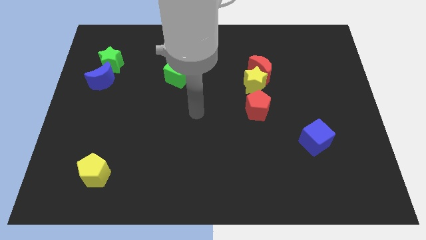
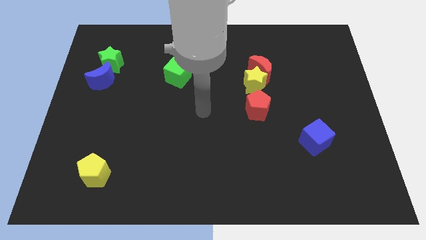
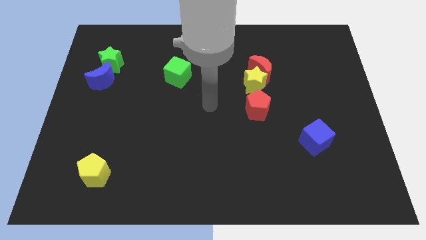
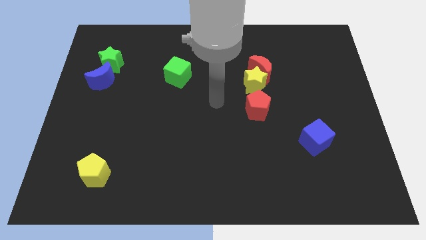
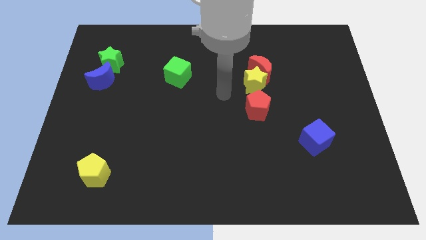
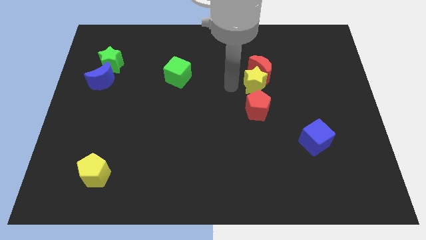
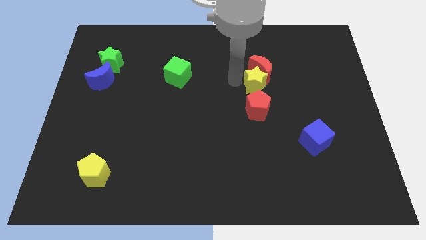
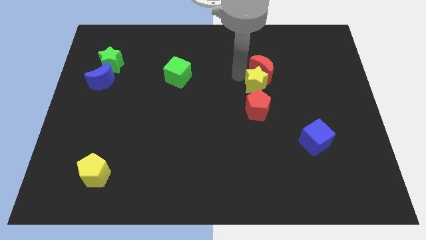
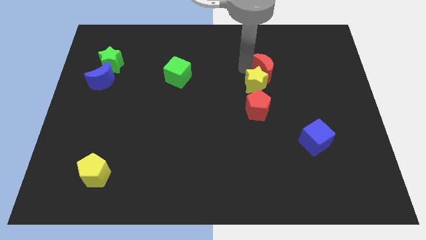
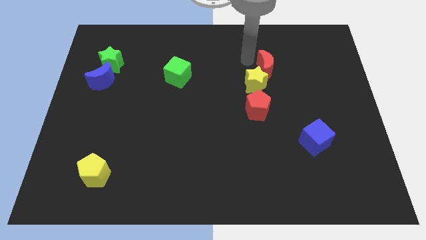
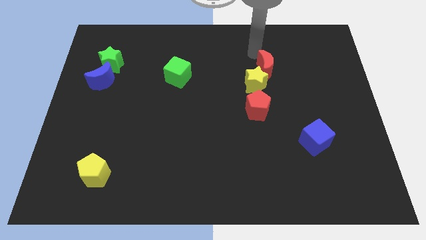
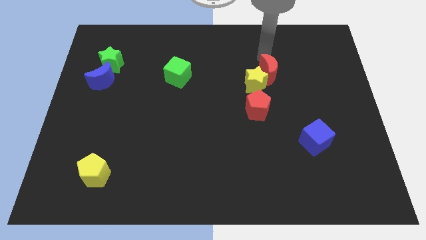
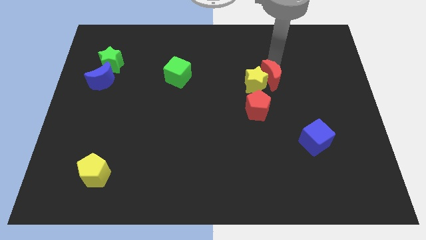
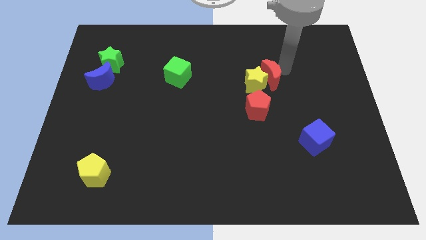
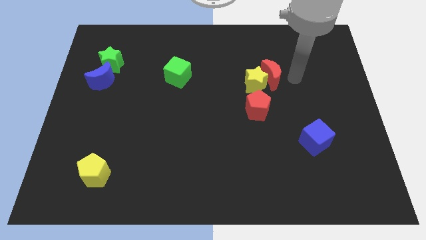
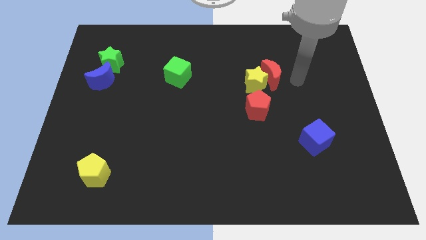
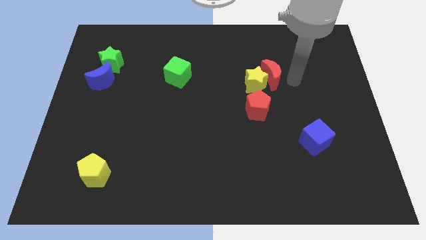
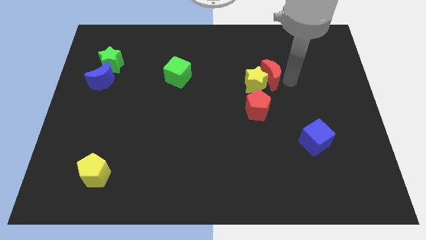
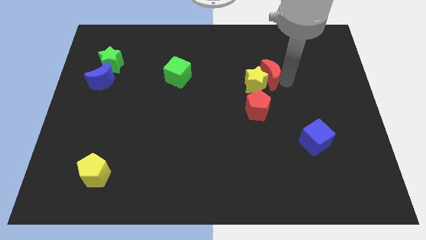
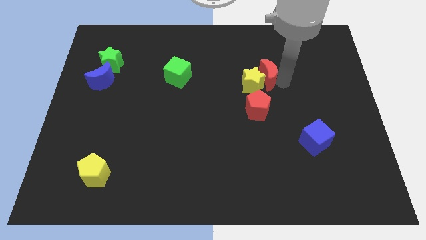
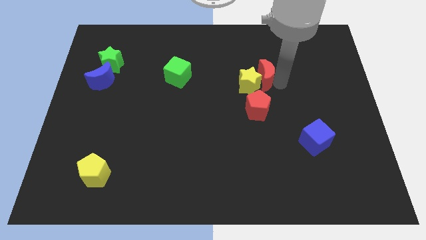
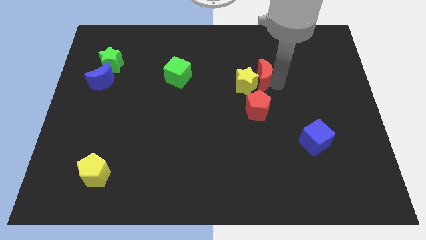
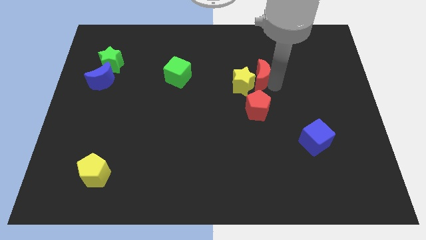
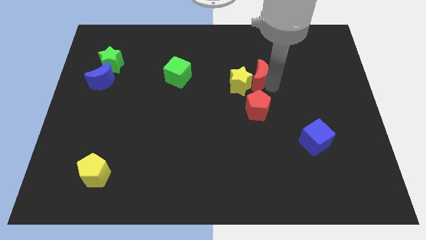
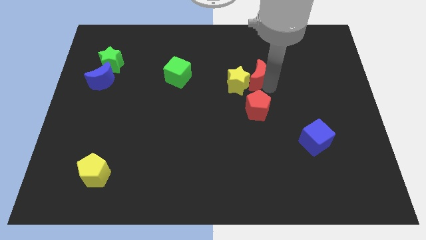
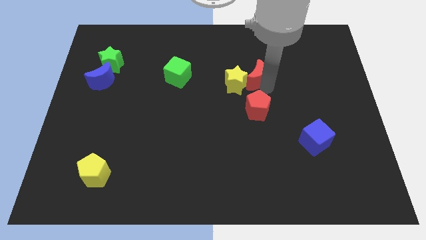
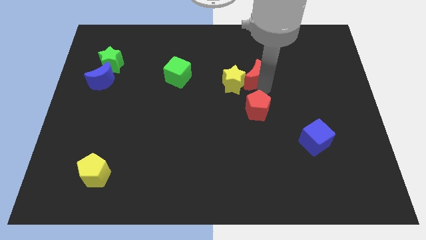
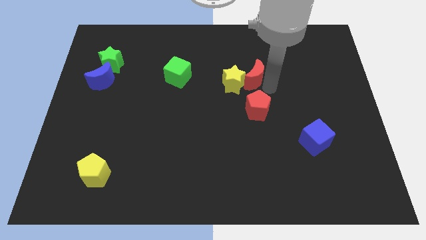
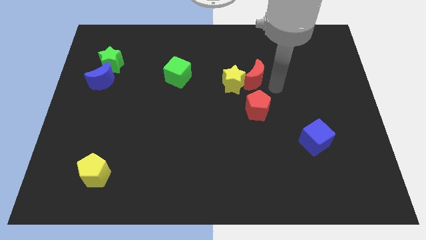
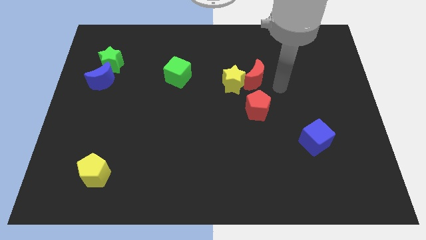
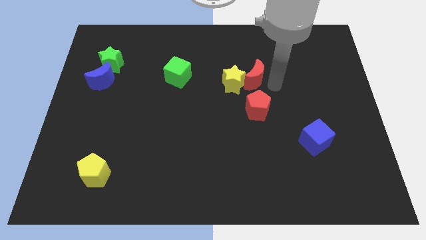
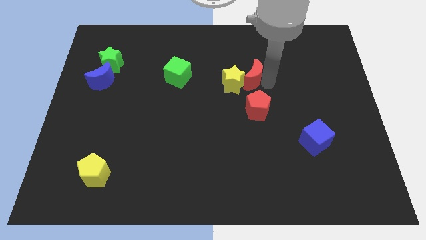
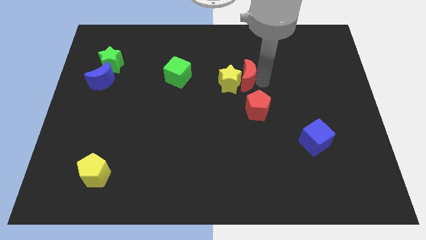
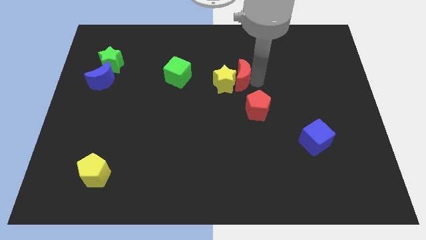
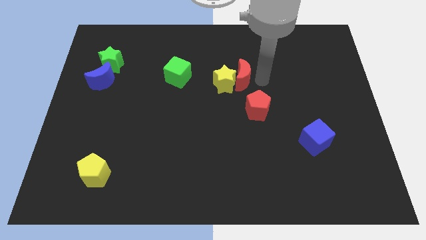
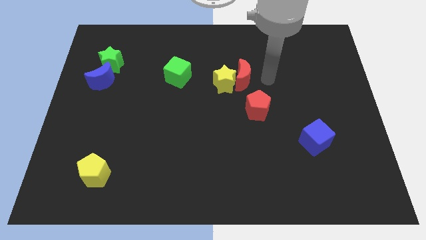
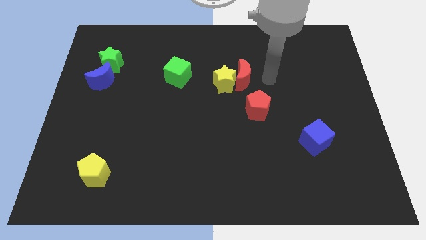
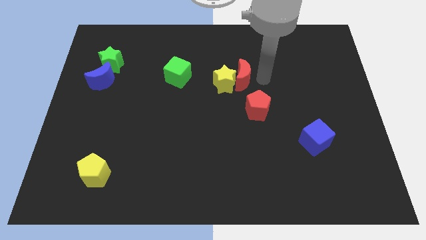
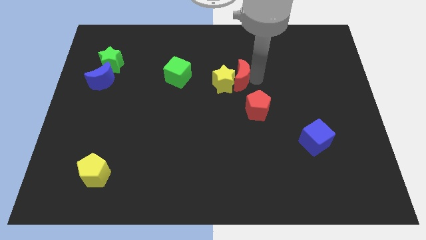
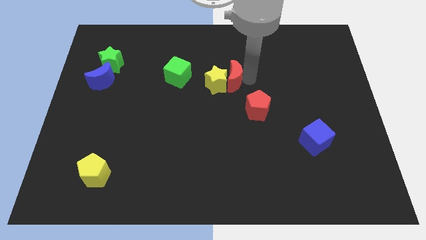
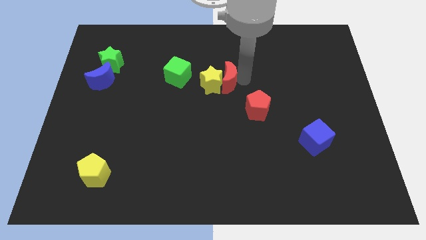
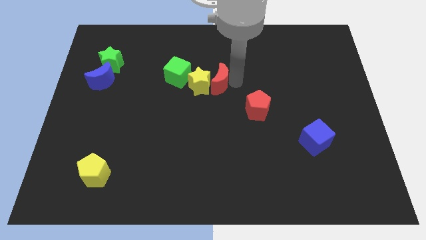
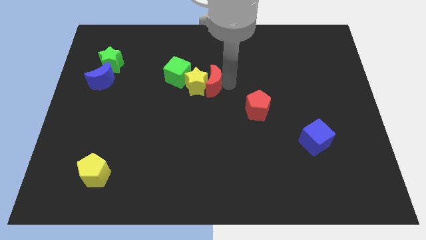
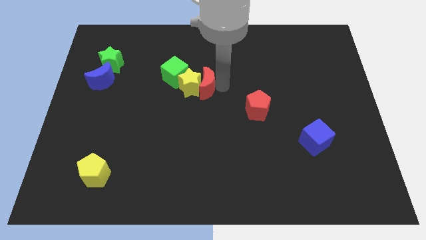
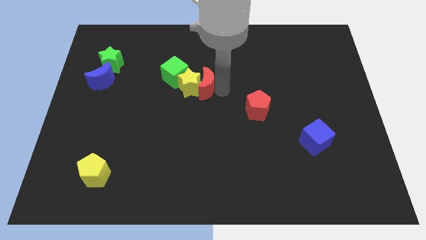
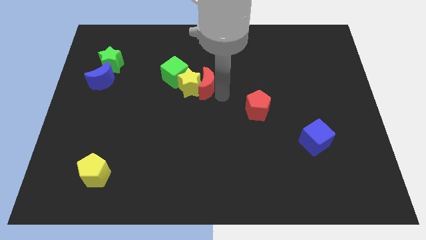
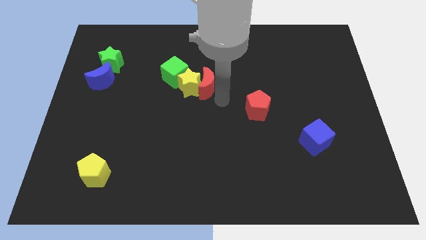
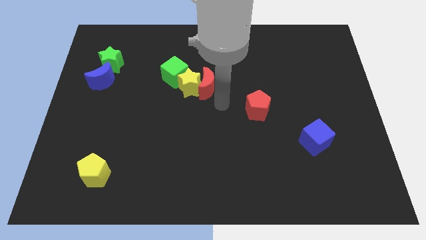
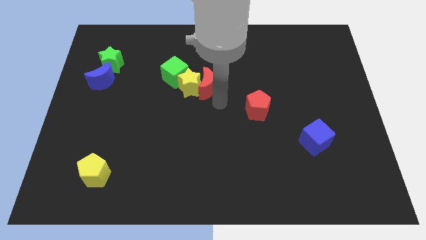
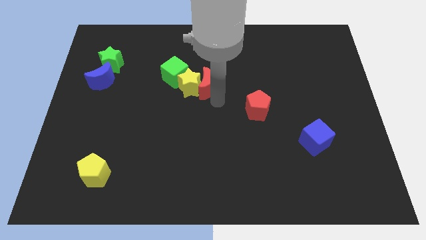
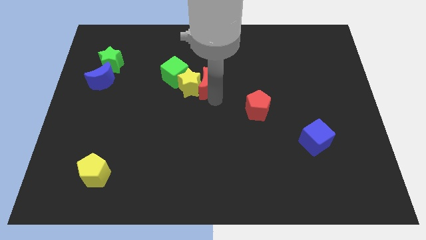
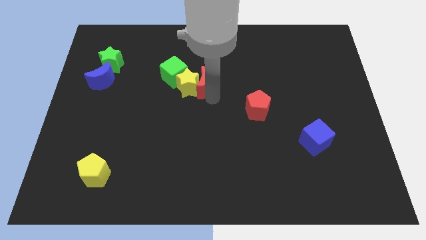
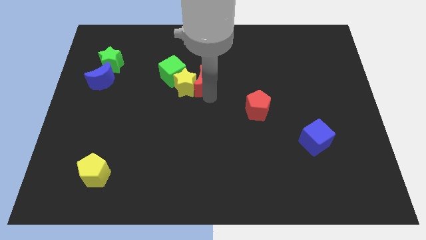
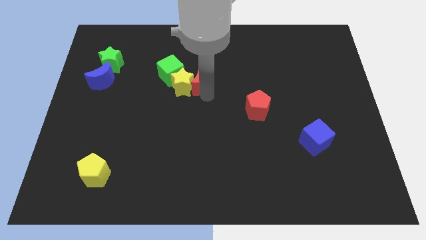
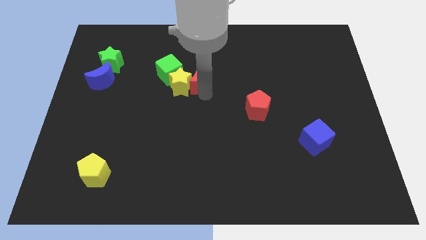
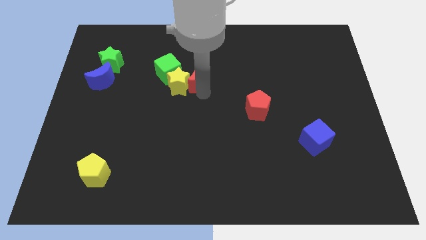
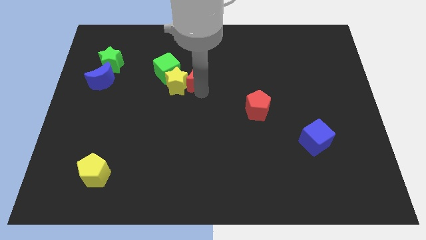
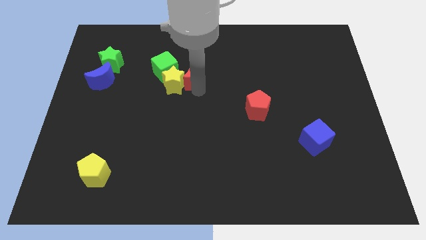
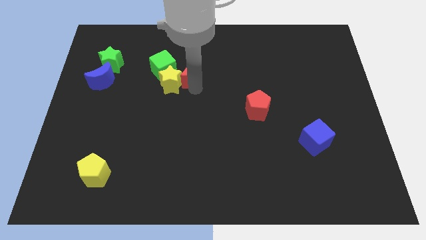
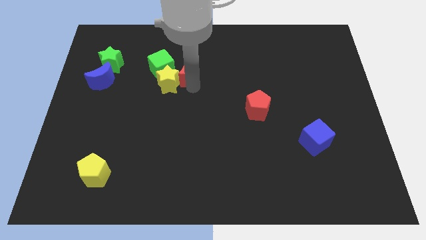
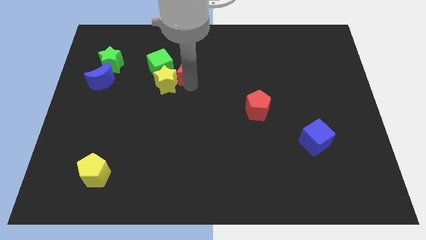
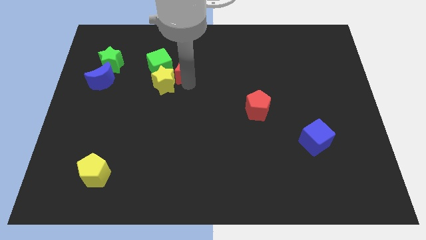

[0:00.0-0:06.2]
push the red moon close to the green cube

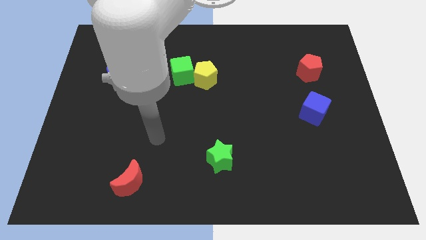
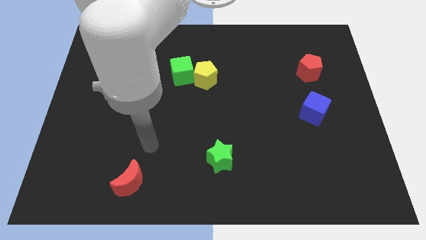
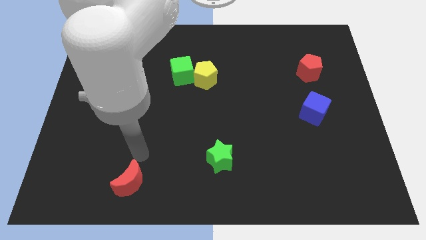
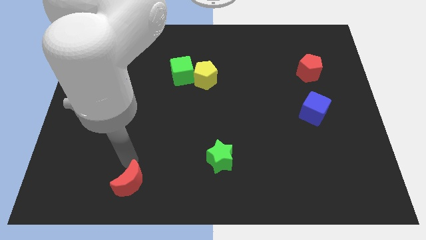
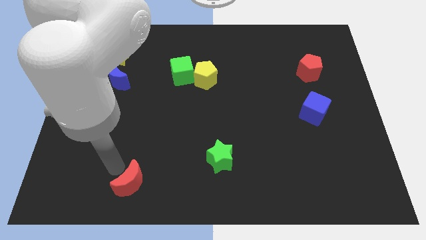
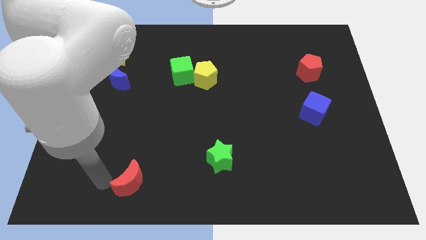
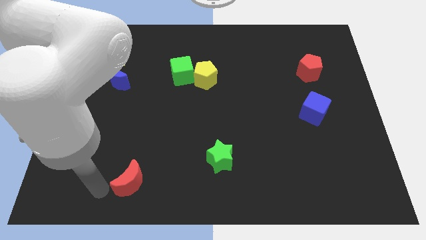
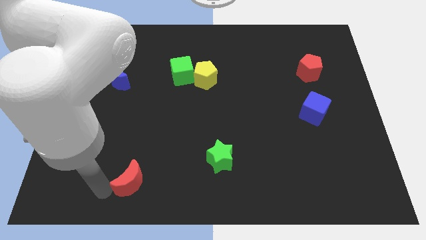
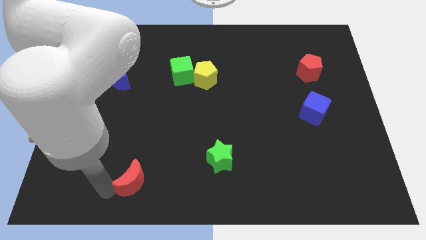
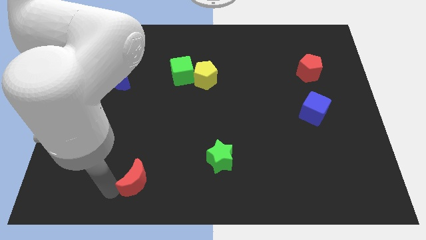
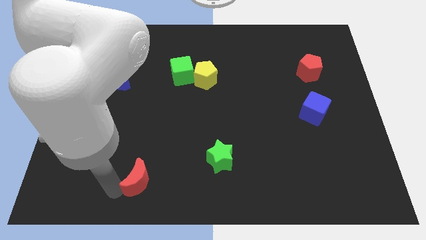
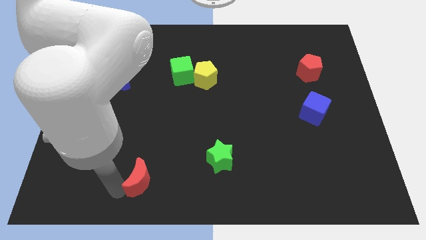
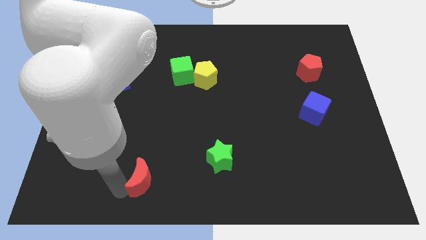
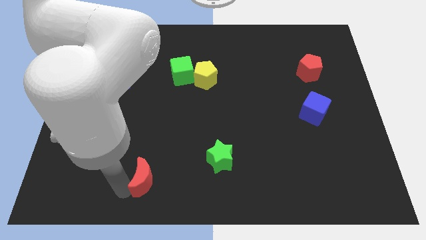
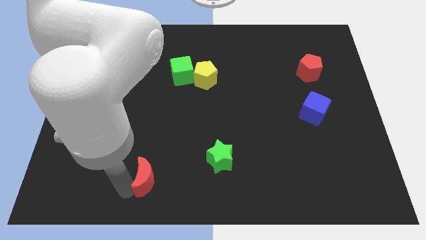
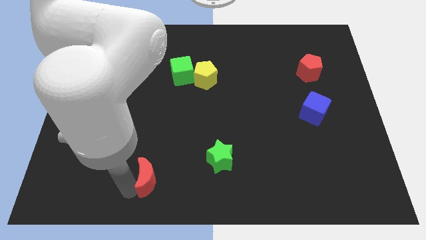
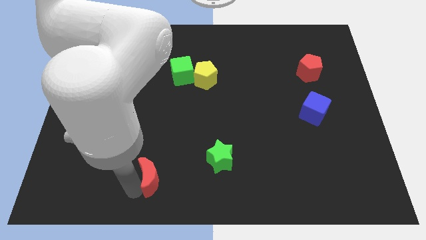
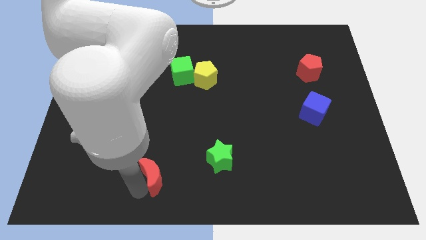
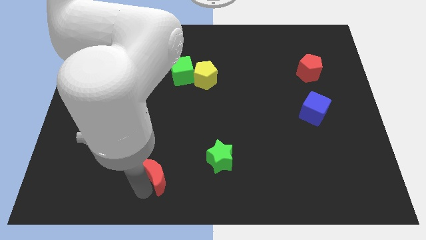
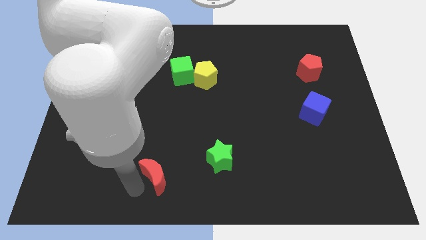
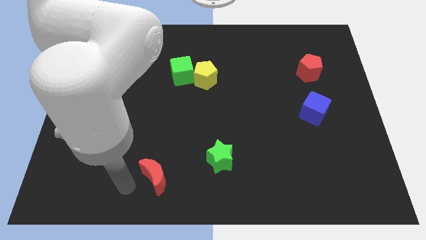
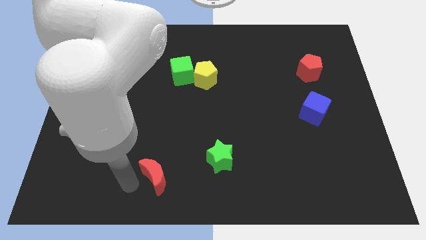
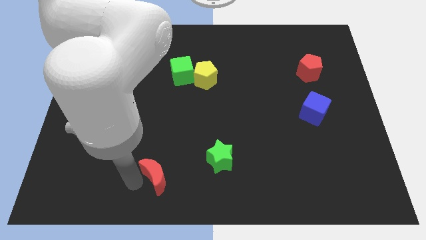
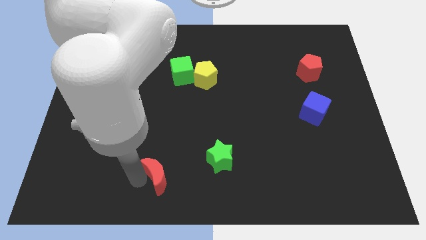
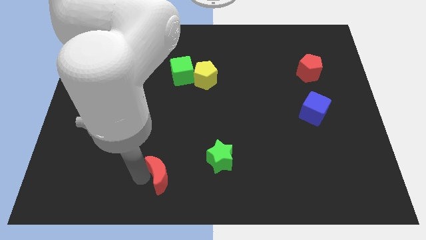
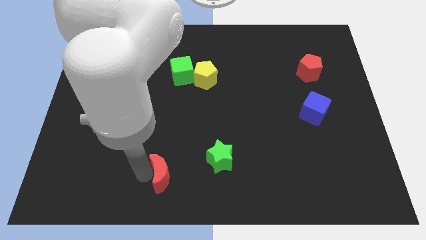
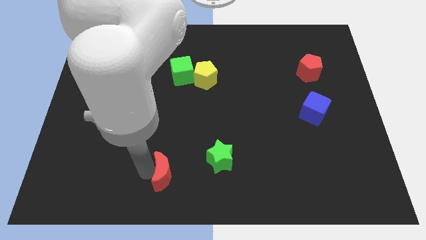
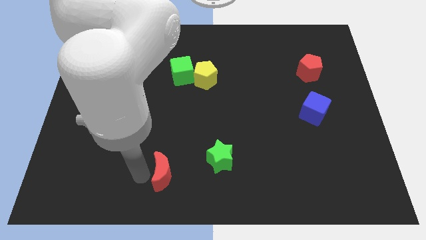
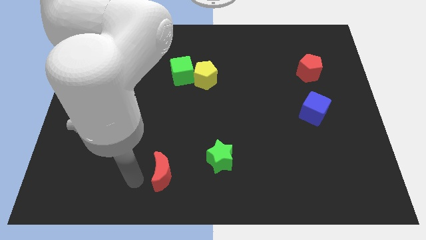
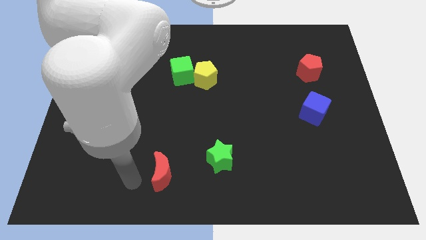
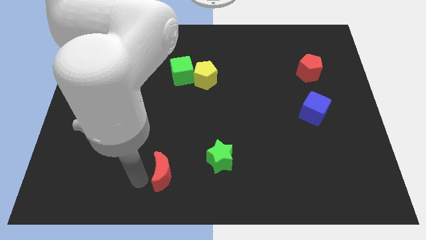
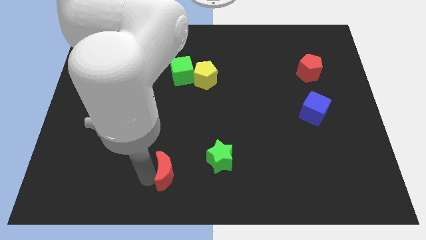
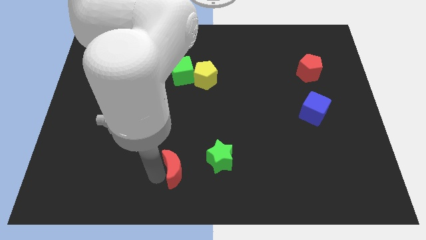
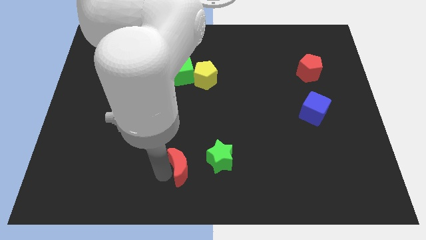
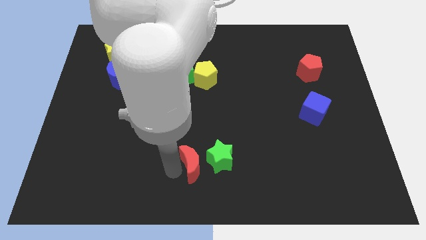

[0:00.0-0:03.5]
move the red moon next to the green star
